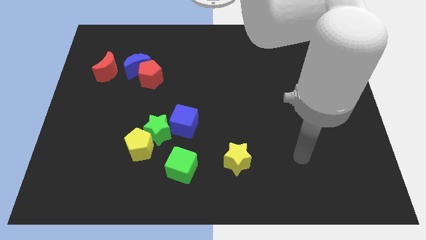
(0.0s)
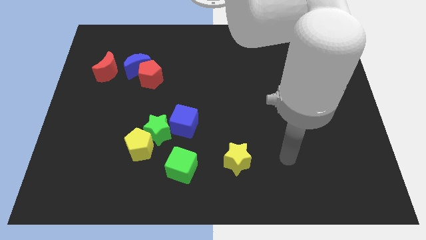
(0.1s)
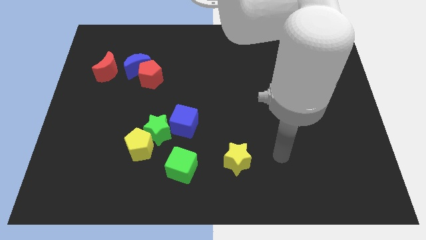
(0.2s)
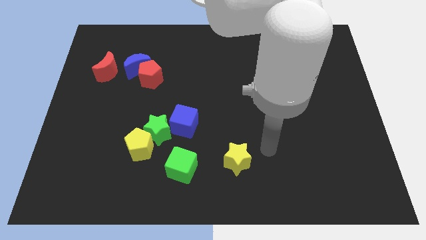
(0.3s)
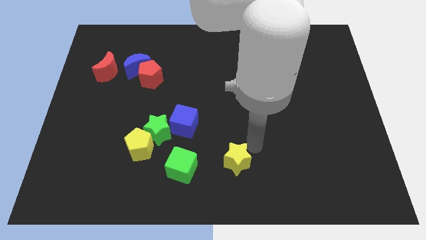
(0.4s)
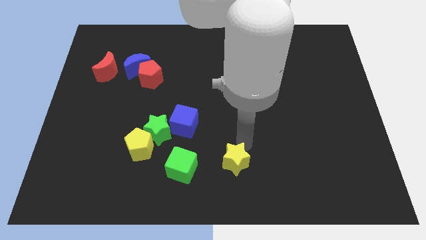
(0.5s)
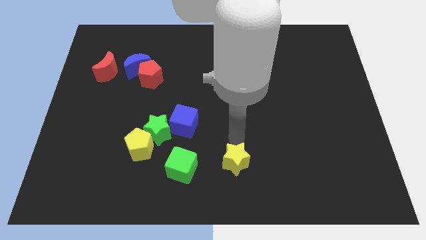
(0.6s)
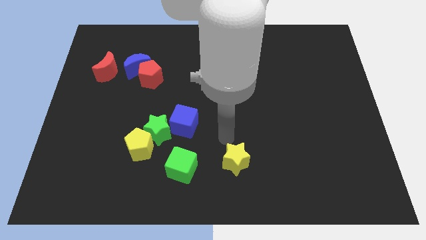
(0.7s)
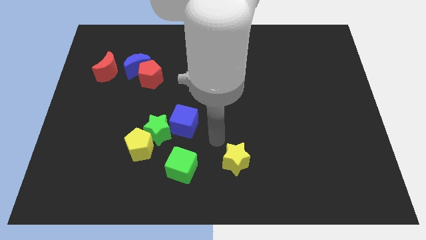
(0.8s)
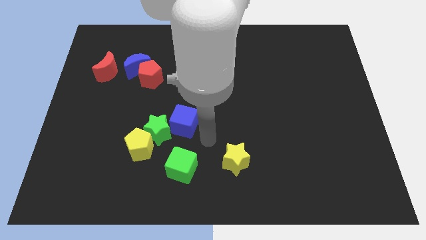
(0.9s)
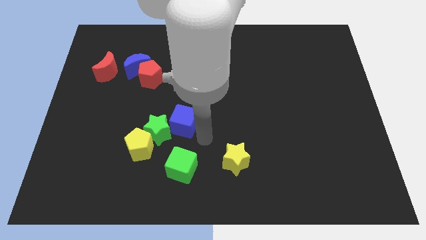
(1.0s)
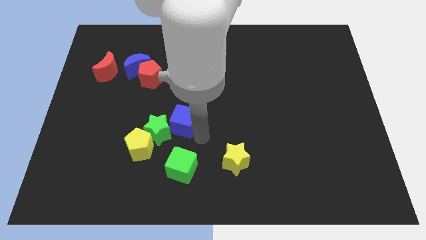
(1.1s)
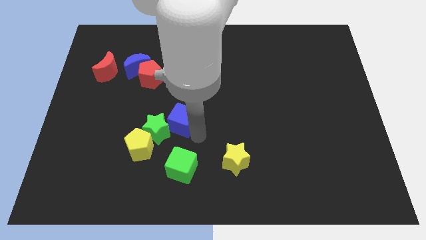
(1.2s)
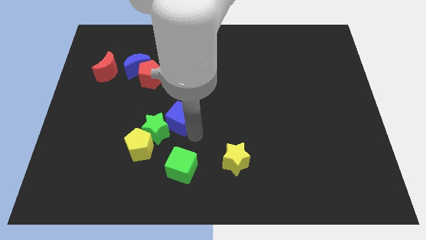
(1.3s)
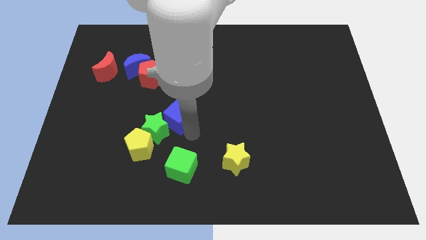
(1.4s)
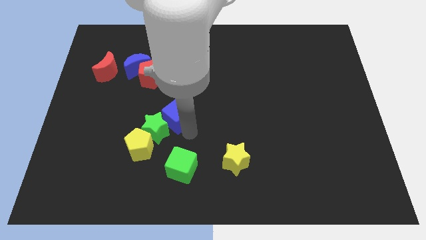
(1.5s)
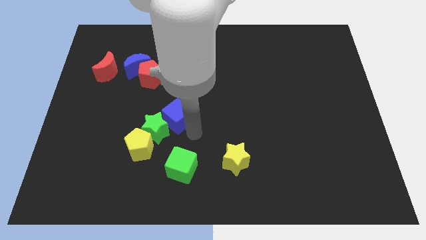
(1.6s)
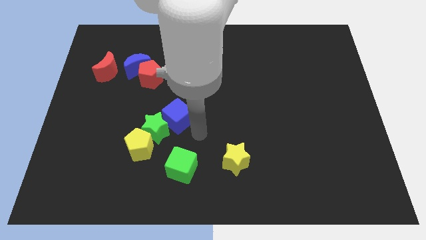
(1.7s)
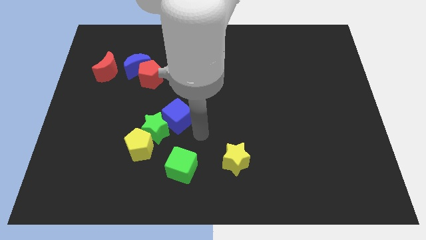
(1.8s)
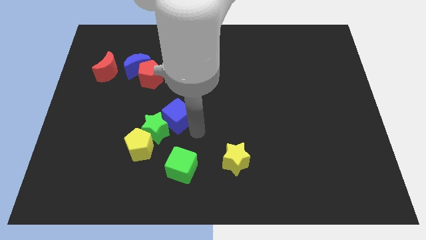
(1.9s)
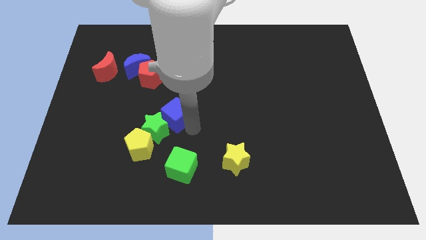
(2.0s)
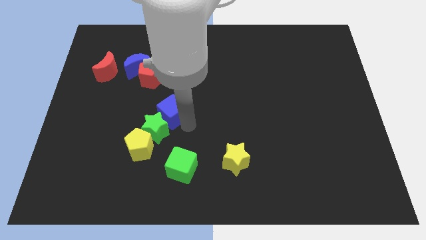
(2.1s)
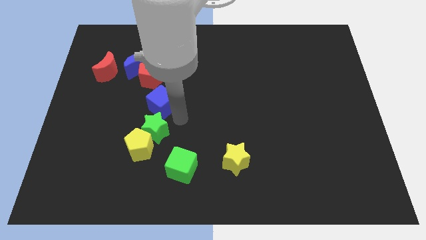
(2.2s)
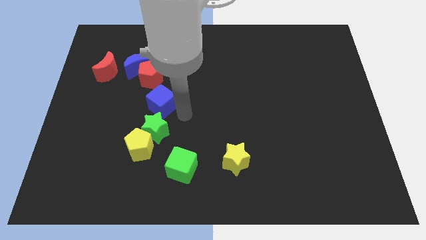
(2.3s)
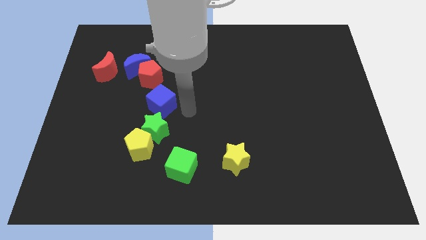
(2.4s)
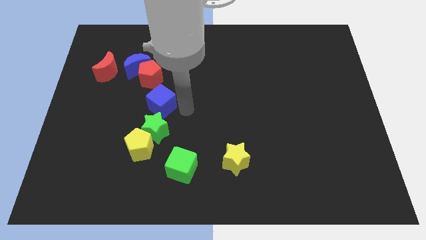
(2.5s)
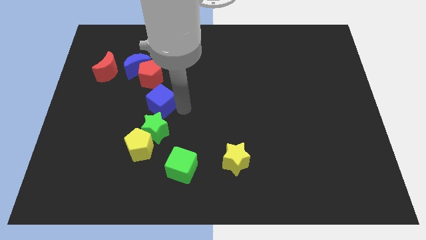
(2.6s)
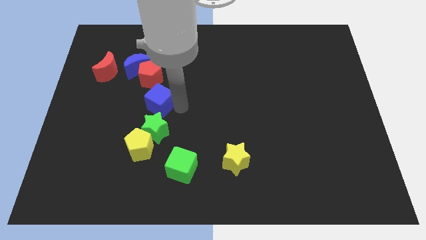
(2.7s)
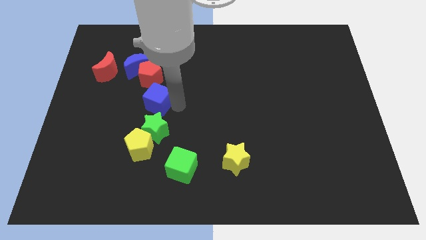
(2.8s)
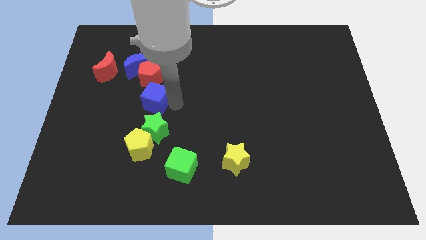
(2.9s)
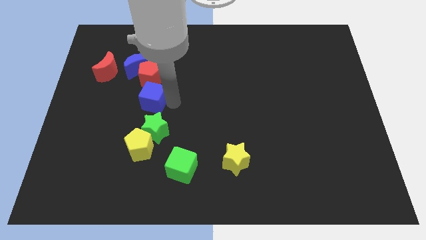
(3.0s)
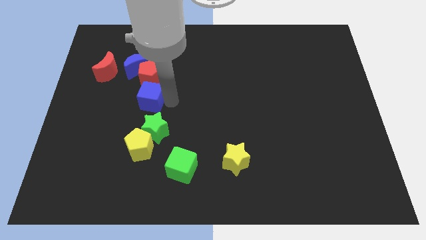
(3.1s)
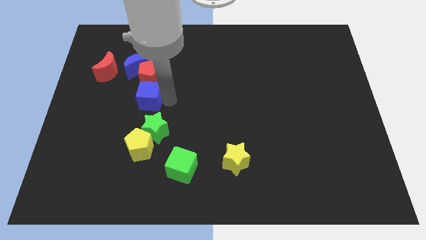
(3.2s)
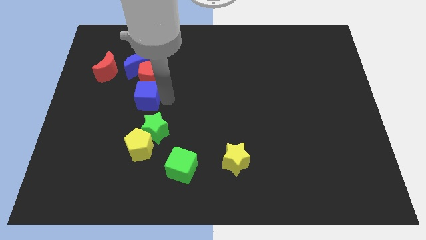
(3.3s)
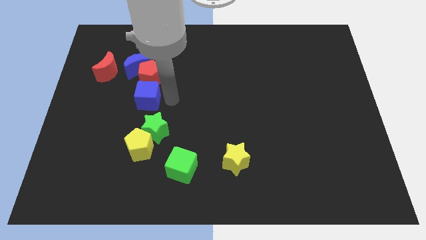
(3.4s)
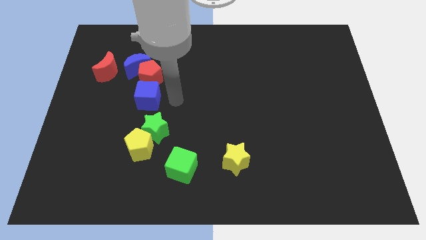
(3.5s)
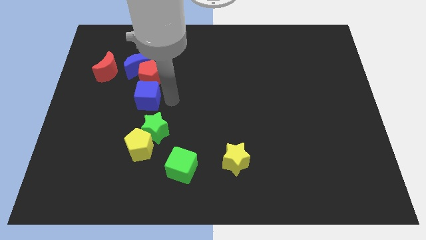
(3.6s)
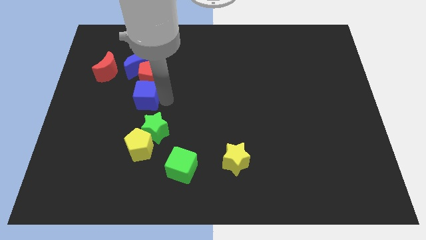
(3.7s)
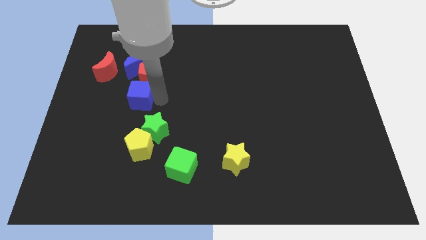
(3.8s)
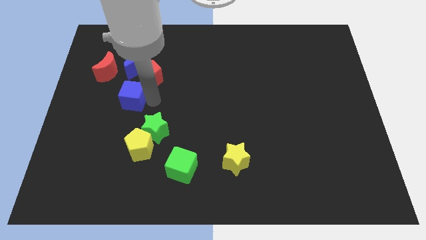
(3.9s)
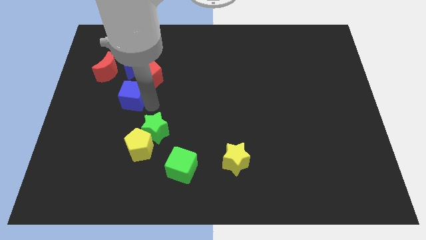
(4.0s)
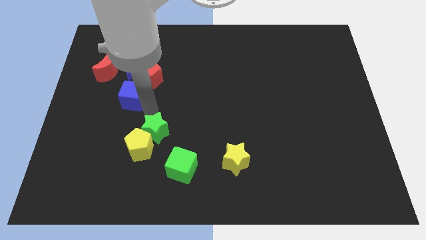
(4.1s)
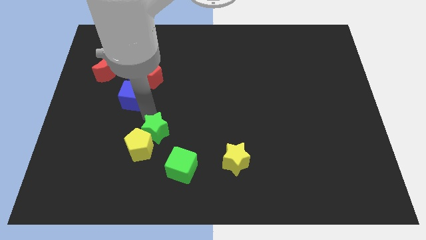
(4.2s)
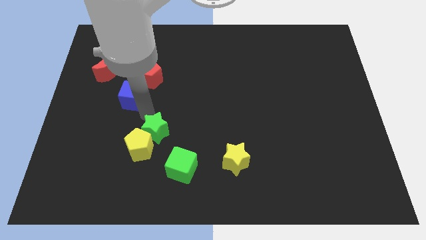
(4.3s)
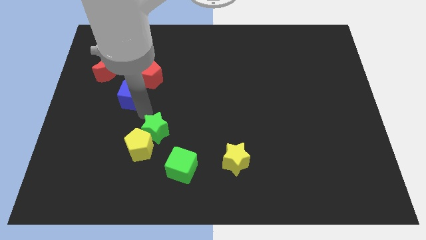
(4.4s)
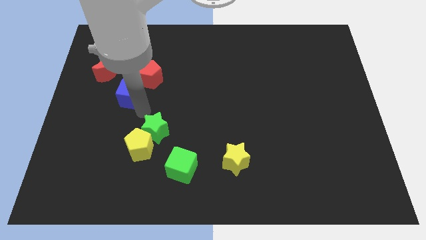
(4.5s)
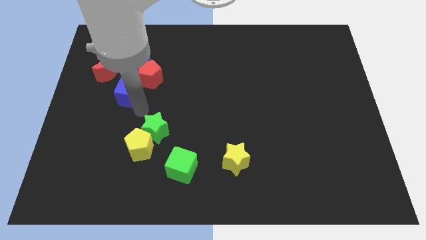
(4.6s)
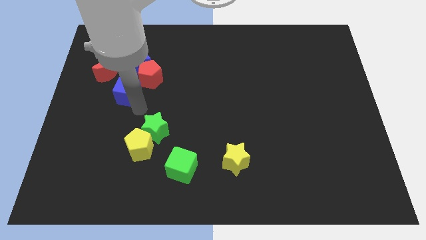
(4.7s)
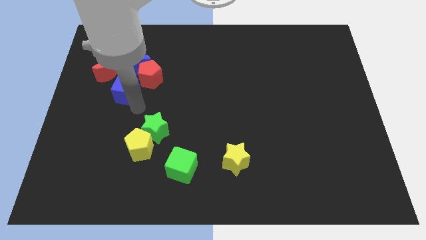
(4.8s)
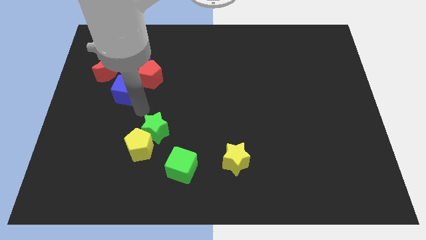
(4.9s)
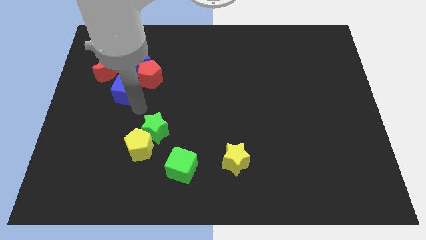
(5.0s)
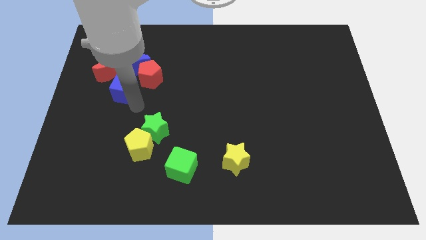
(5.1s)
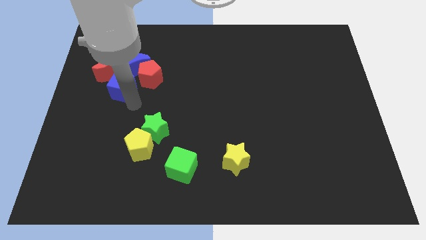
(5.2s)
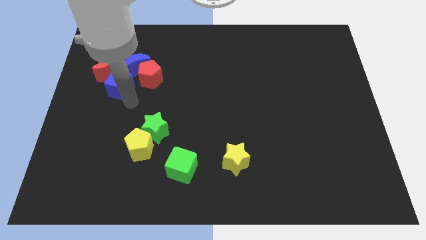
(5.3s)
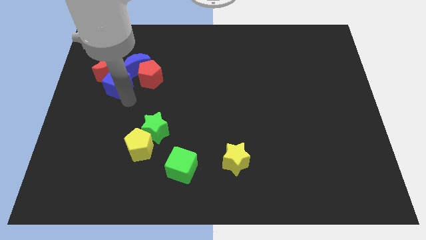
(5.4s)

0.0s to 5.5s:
slide the blue cube close to the red moon

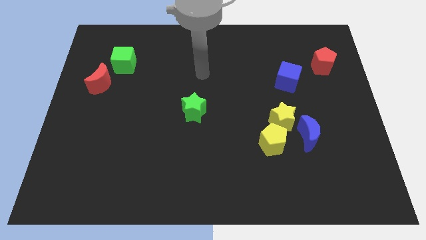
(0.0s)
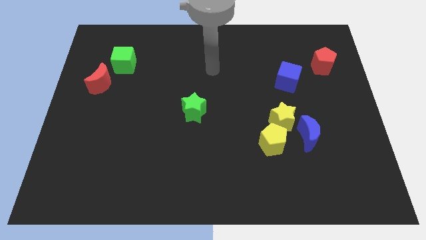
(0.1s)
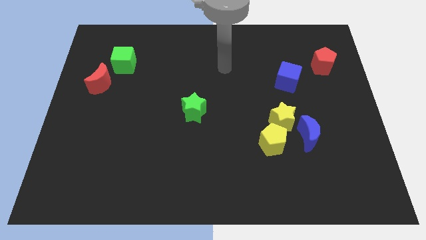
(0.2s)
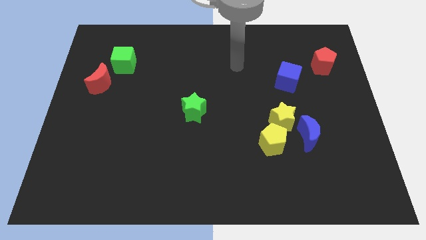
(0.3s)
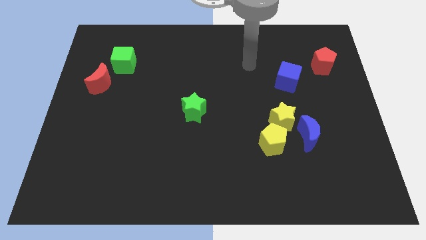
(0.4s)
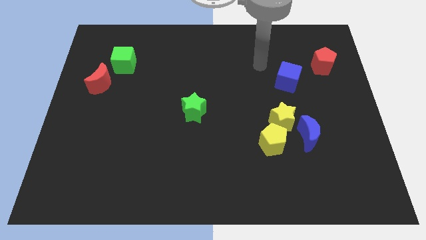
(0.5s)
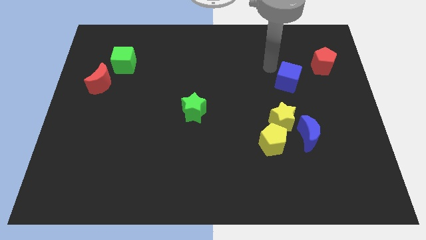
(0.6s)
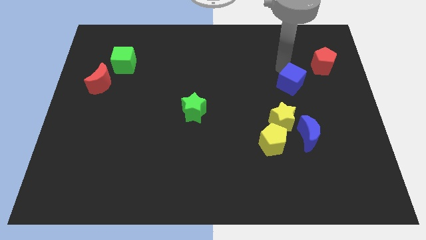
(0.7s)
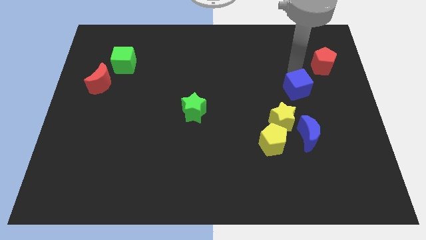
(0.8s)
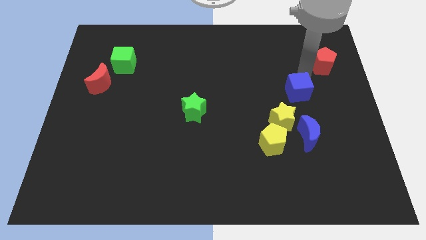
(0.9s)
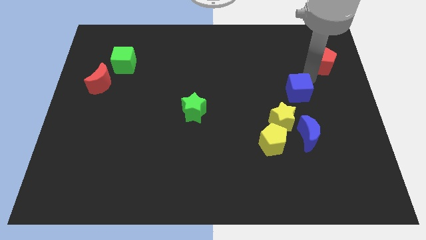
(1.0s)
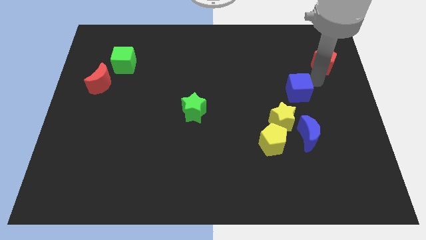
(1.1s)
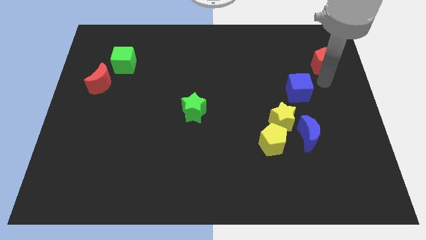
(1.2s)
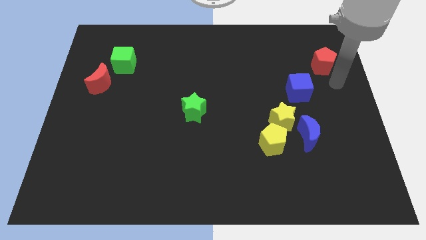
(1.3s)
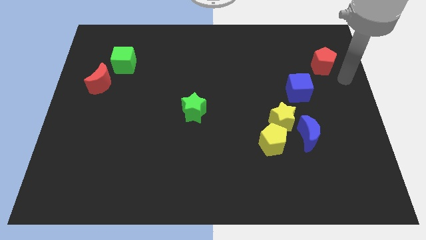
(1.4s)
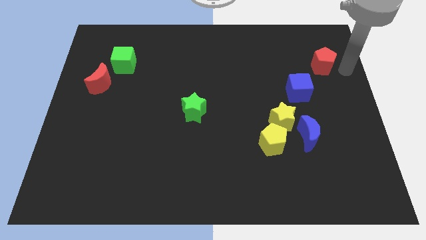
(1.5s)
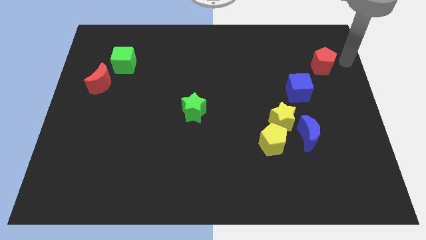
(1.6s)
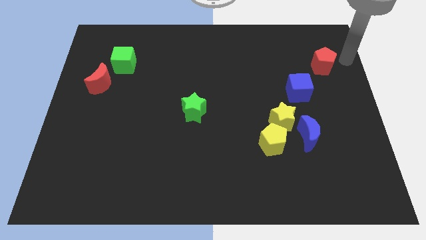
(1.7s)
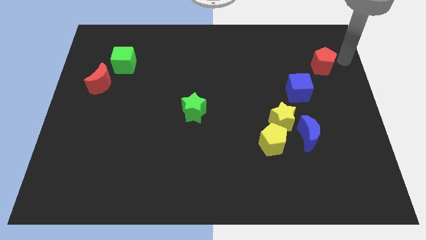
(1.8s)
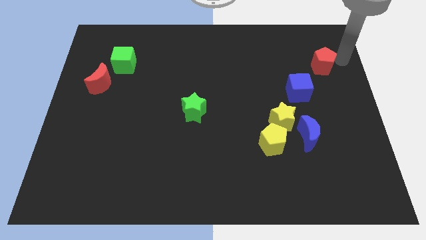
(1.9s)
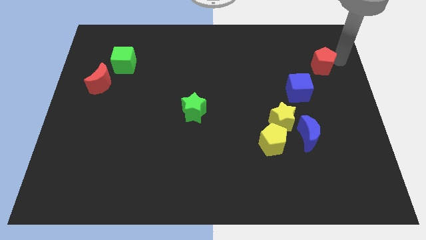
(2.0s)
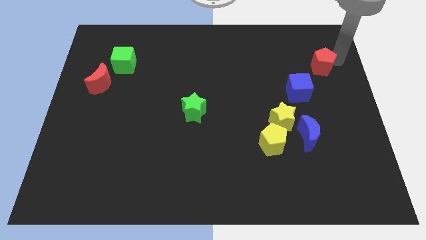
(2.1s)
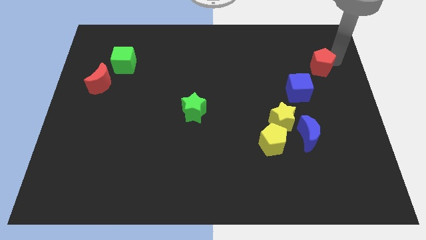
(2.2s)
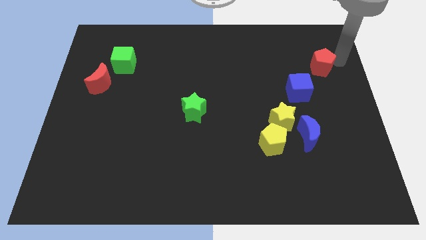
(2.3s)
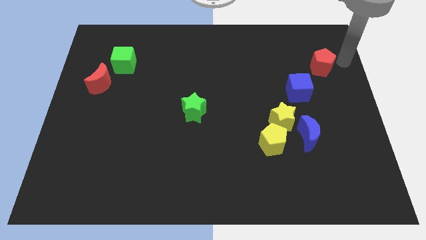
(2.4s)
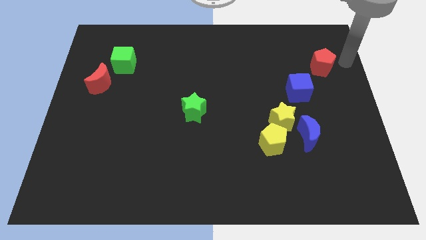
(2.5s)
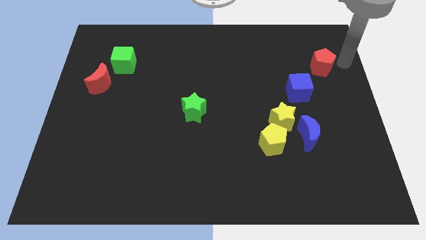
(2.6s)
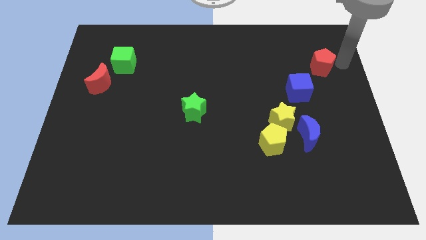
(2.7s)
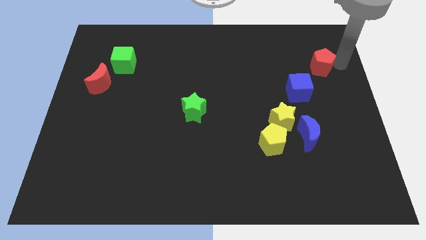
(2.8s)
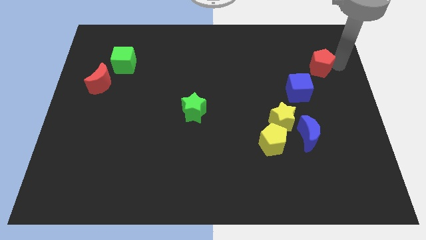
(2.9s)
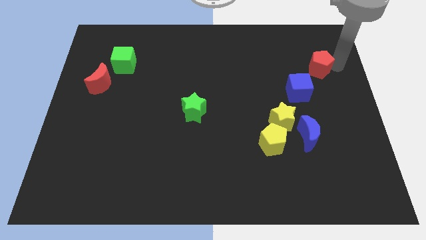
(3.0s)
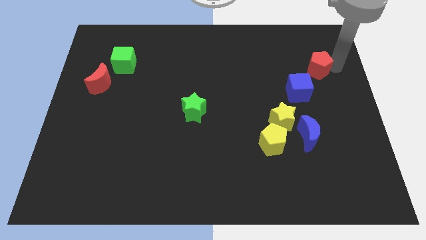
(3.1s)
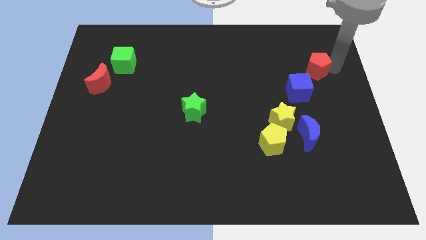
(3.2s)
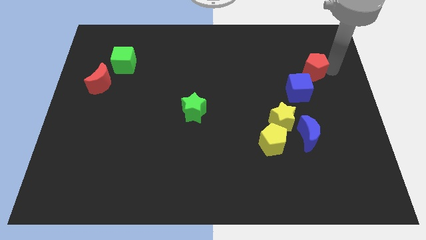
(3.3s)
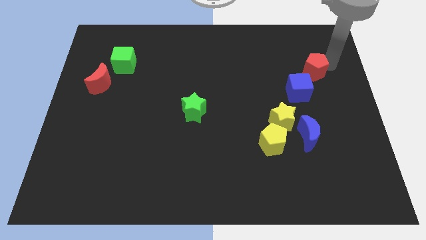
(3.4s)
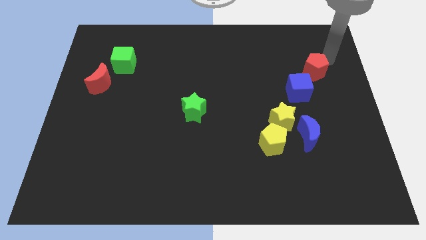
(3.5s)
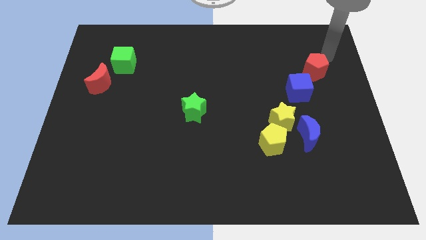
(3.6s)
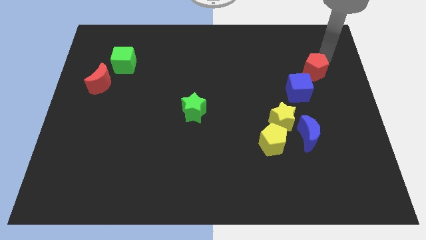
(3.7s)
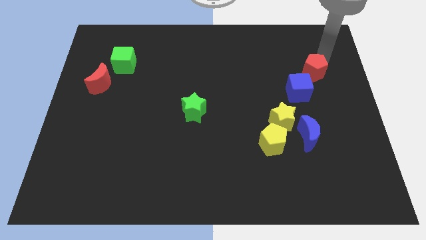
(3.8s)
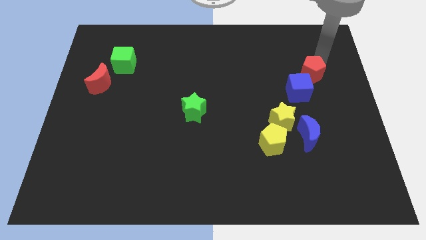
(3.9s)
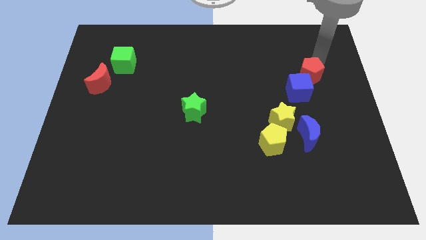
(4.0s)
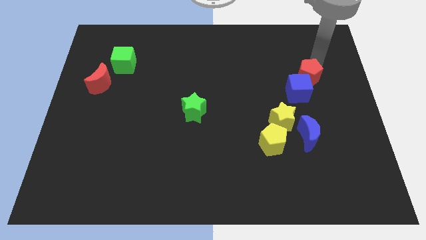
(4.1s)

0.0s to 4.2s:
push the red pentagon to the blue cube
